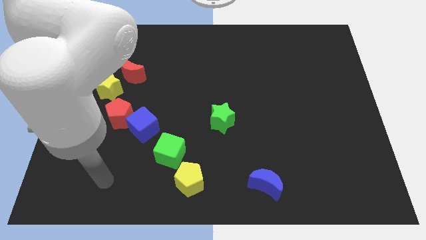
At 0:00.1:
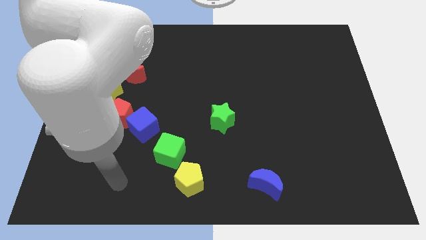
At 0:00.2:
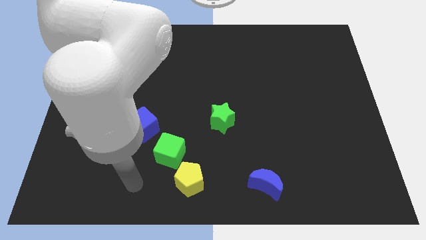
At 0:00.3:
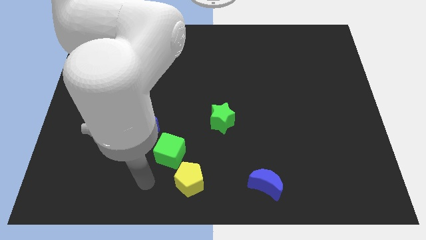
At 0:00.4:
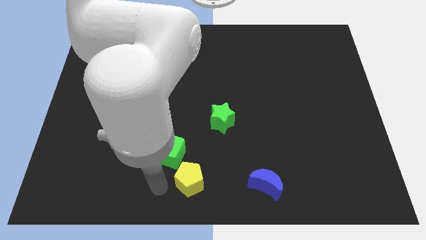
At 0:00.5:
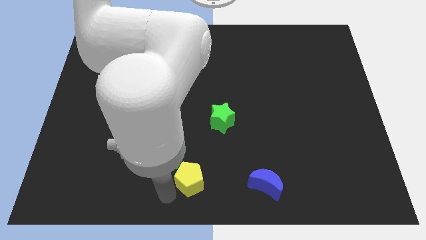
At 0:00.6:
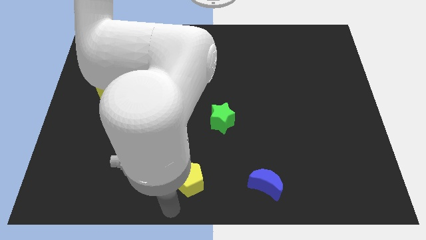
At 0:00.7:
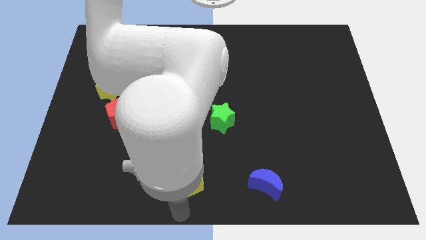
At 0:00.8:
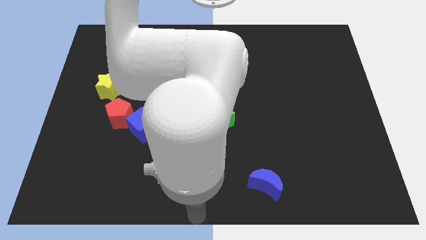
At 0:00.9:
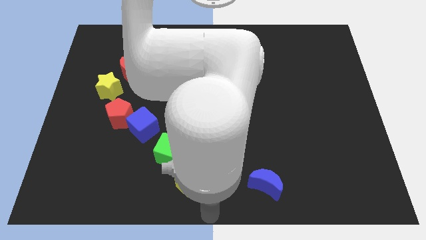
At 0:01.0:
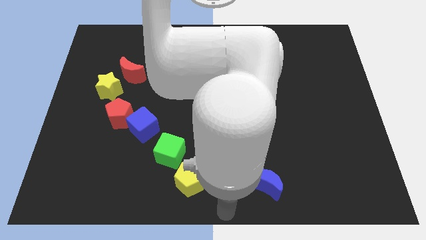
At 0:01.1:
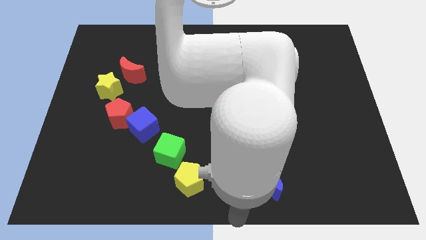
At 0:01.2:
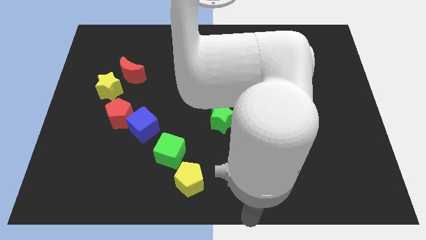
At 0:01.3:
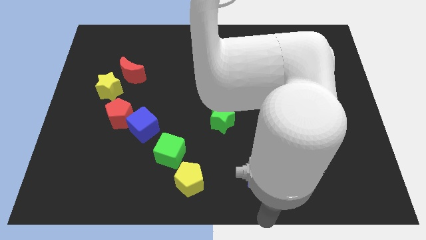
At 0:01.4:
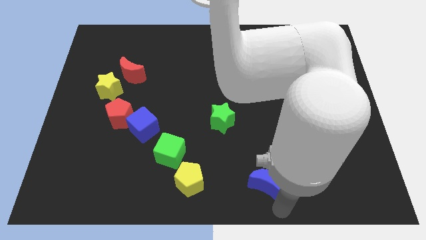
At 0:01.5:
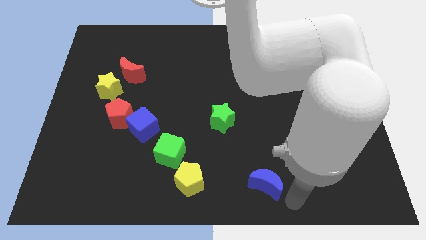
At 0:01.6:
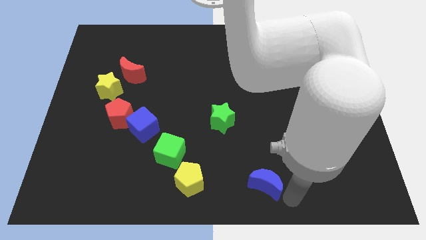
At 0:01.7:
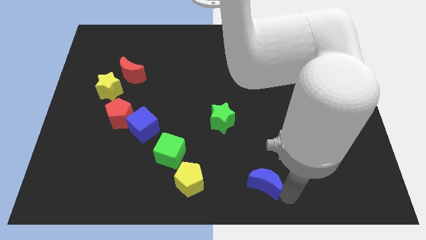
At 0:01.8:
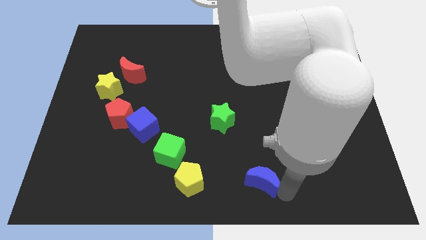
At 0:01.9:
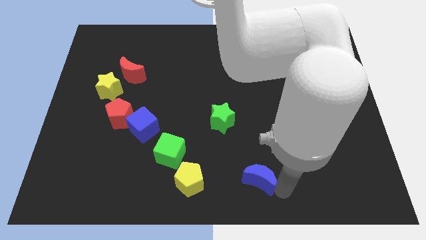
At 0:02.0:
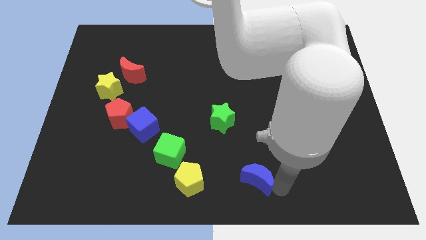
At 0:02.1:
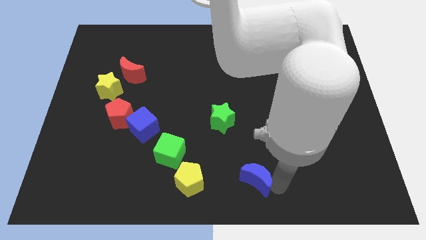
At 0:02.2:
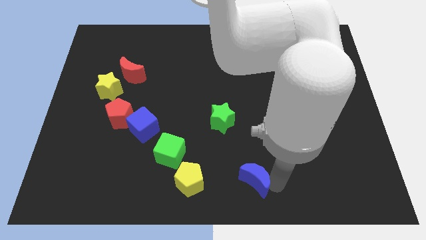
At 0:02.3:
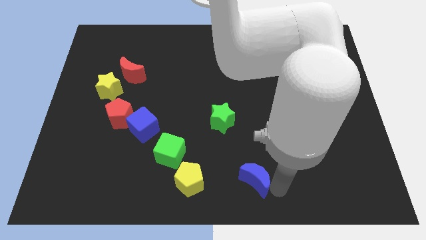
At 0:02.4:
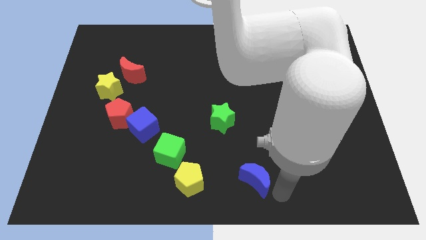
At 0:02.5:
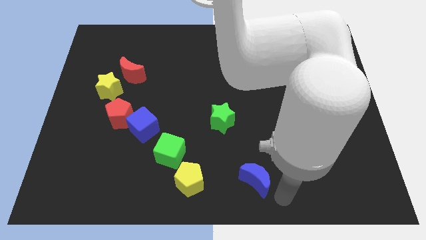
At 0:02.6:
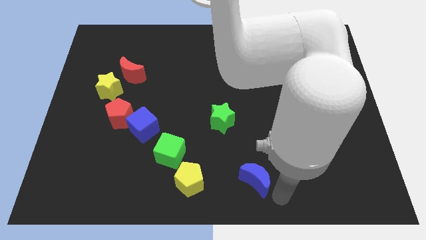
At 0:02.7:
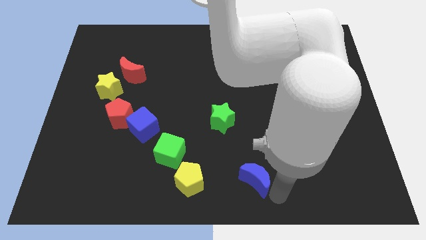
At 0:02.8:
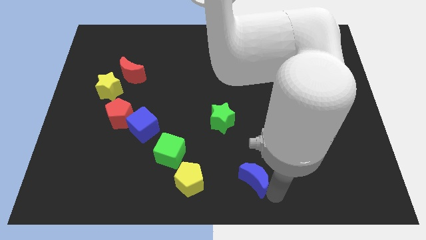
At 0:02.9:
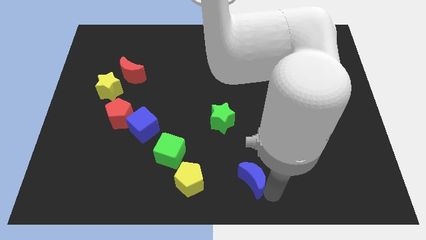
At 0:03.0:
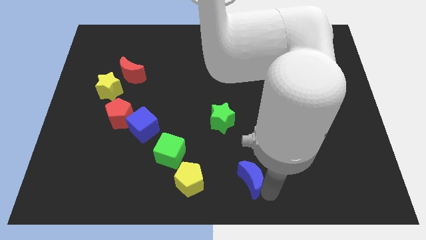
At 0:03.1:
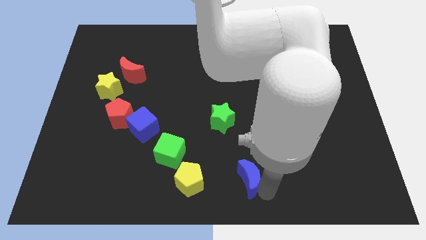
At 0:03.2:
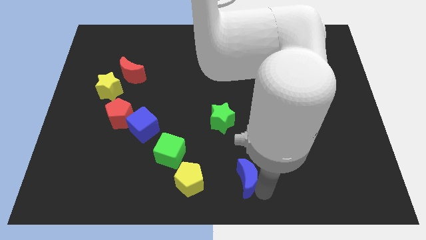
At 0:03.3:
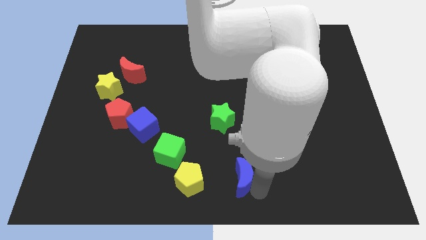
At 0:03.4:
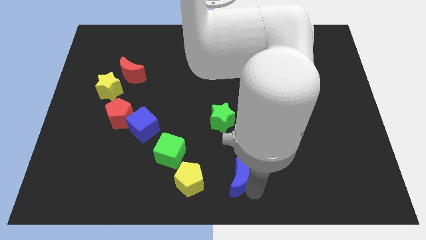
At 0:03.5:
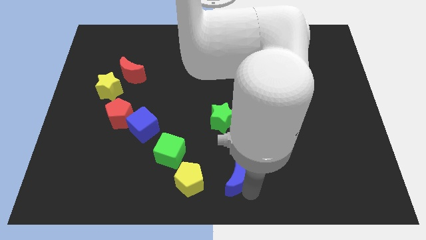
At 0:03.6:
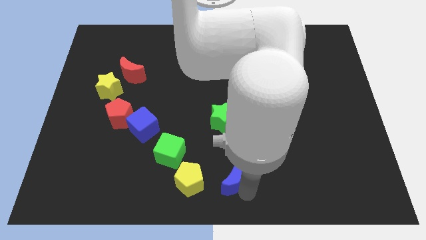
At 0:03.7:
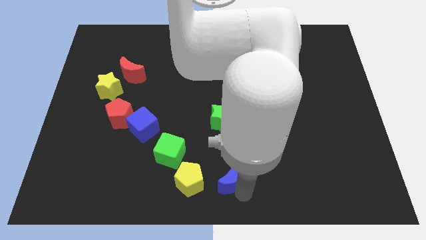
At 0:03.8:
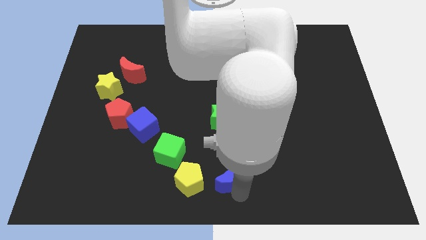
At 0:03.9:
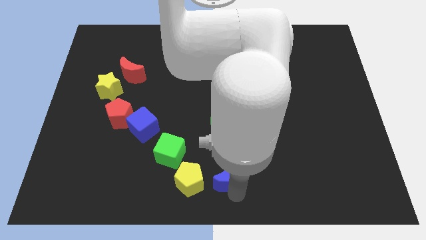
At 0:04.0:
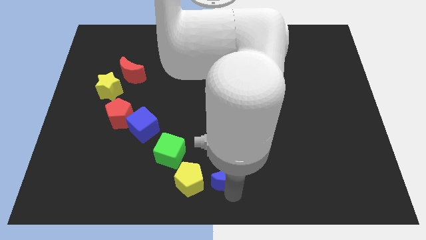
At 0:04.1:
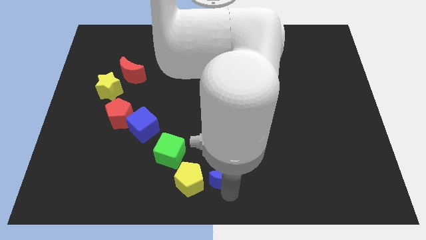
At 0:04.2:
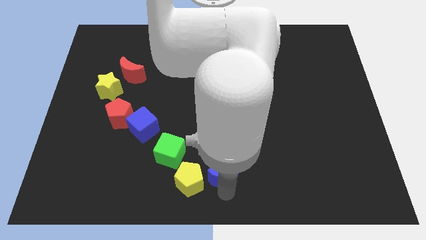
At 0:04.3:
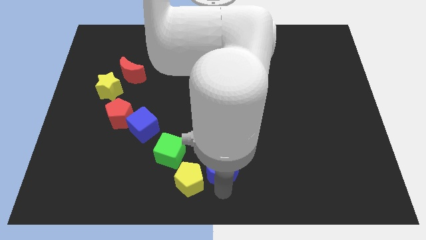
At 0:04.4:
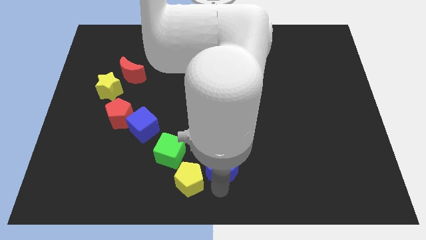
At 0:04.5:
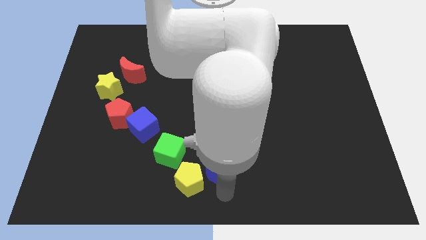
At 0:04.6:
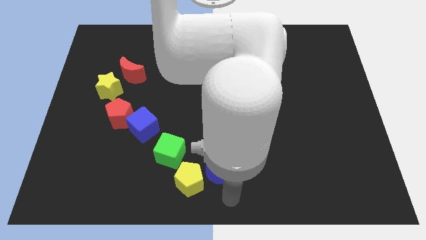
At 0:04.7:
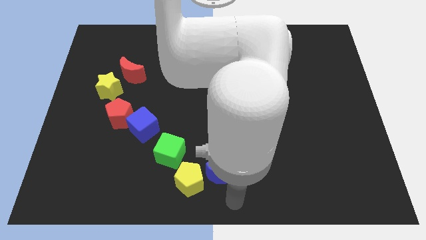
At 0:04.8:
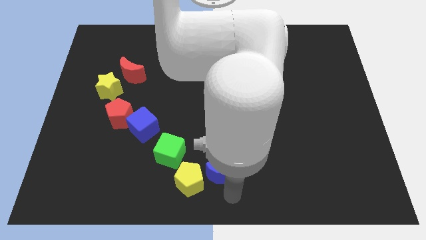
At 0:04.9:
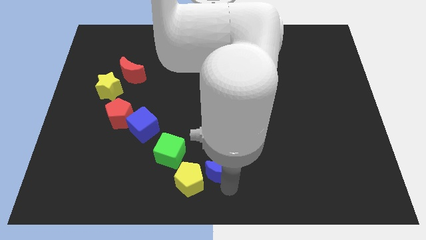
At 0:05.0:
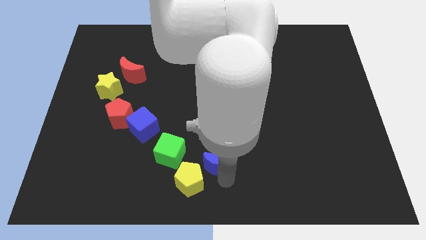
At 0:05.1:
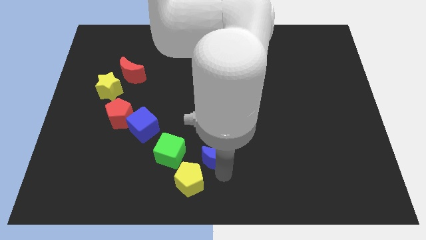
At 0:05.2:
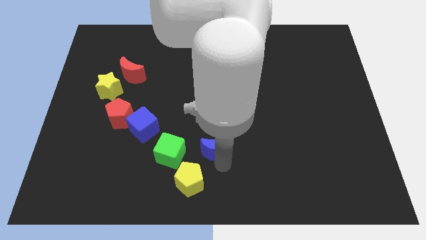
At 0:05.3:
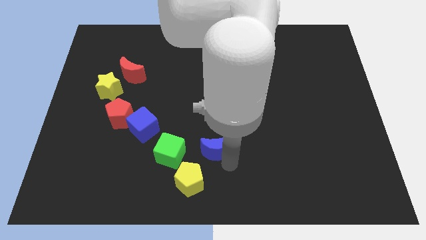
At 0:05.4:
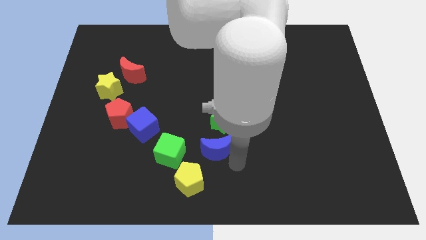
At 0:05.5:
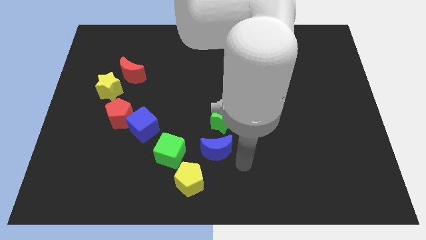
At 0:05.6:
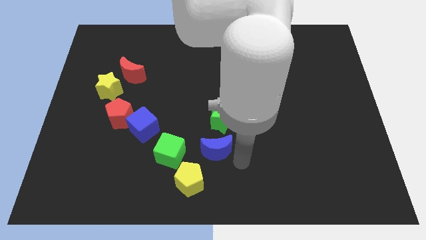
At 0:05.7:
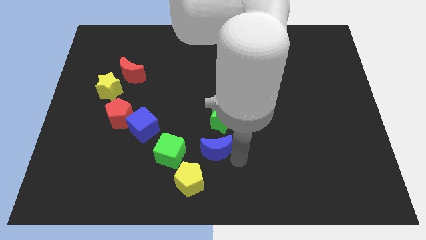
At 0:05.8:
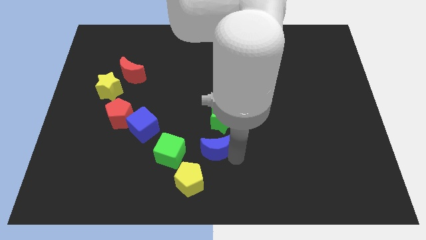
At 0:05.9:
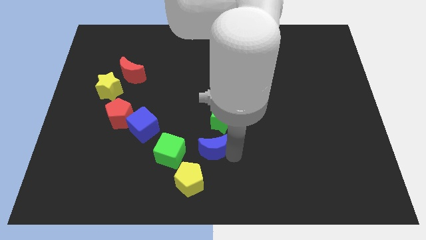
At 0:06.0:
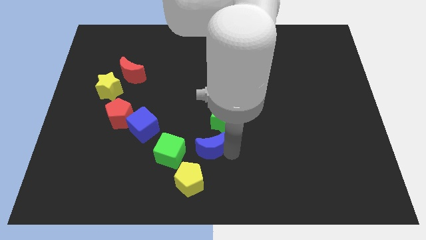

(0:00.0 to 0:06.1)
push the blue moon to the top side of the yellow pentagon
